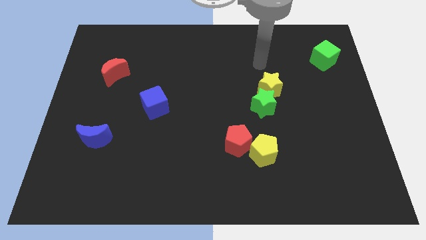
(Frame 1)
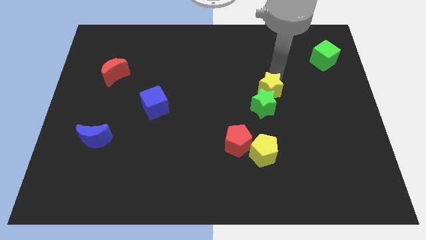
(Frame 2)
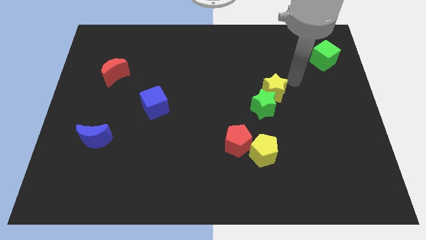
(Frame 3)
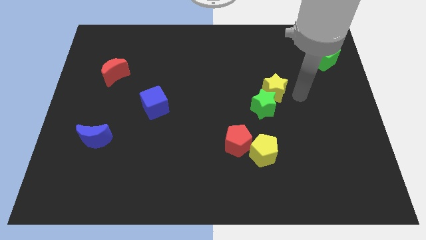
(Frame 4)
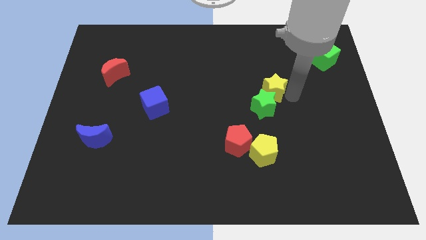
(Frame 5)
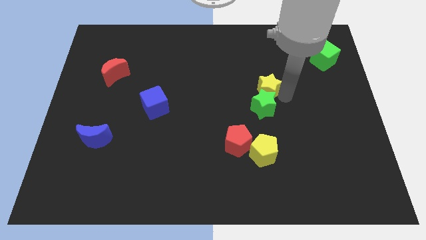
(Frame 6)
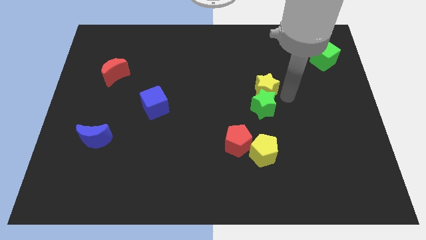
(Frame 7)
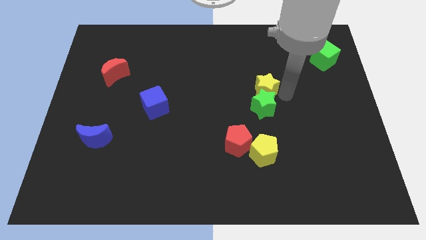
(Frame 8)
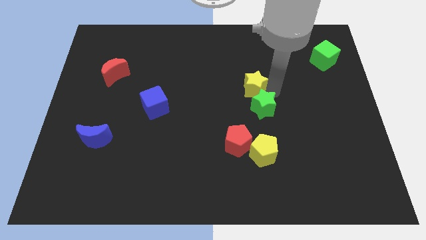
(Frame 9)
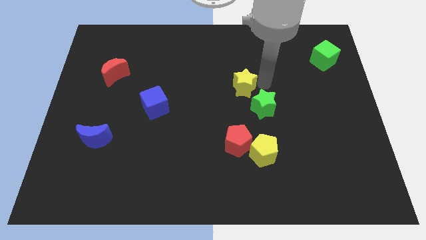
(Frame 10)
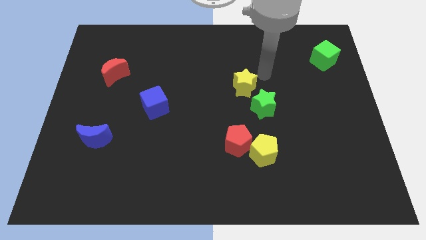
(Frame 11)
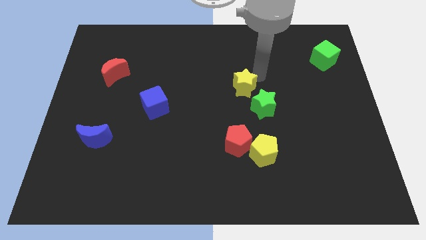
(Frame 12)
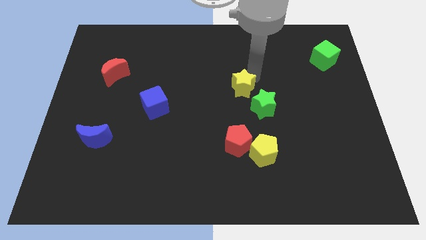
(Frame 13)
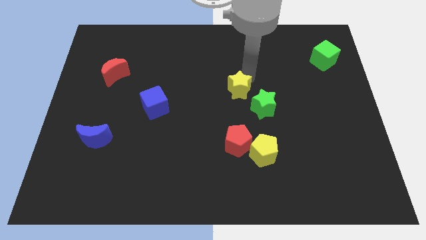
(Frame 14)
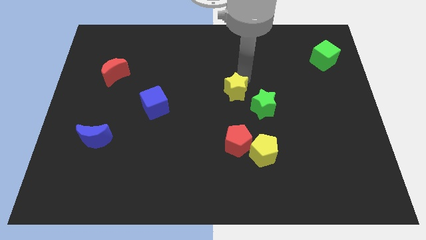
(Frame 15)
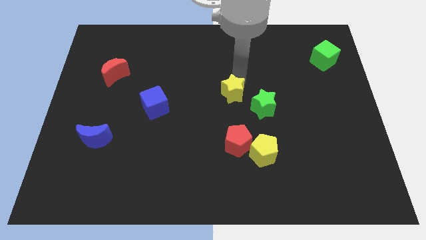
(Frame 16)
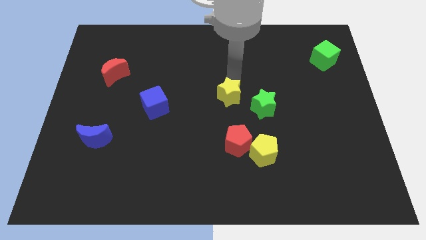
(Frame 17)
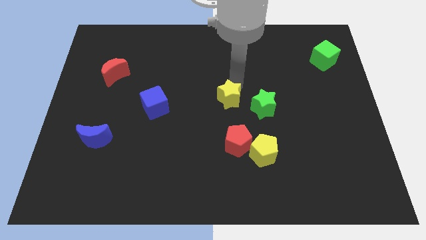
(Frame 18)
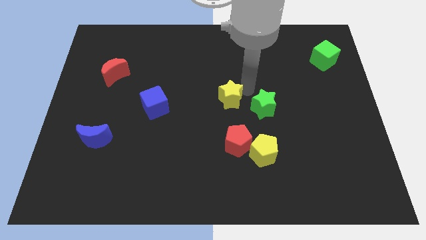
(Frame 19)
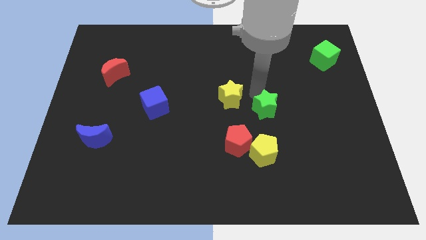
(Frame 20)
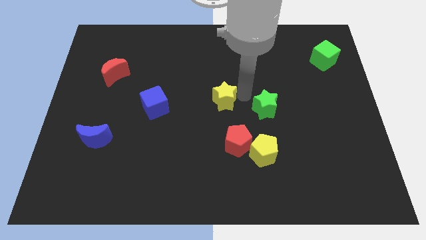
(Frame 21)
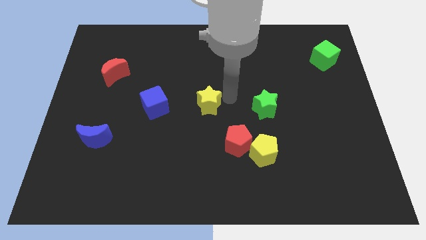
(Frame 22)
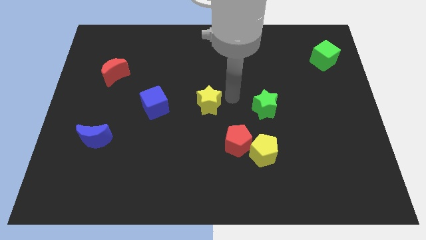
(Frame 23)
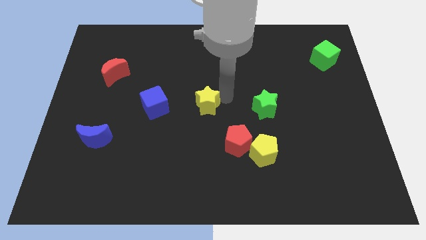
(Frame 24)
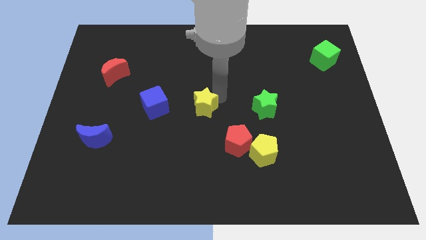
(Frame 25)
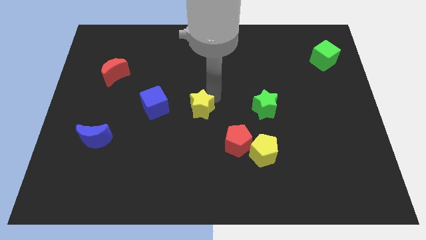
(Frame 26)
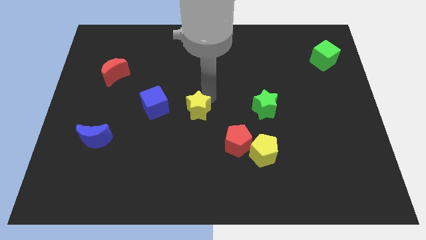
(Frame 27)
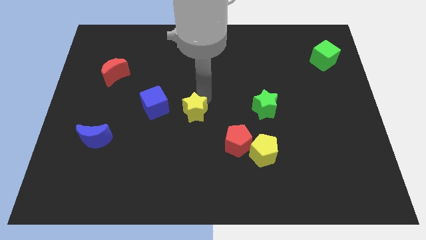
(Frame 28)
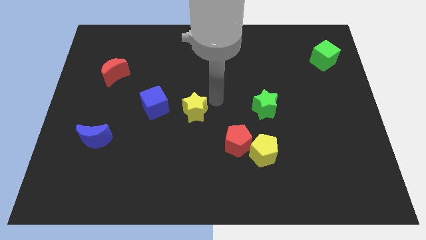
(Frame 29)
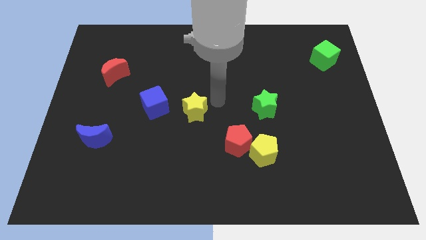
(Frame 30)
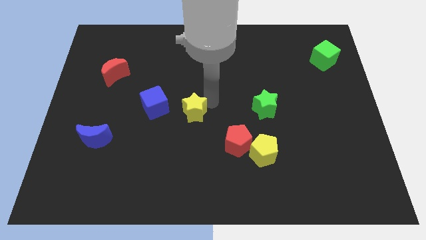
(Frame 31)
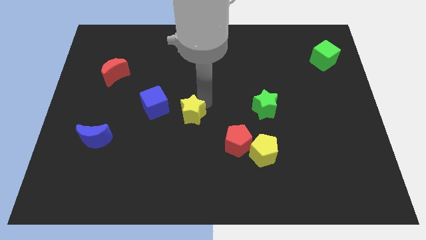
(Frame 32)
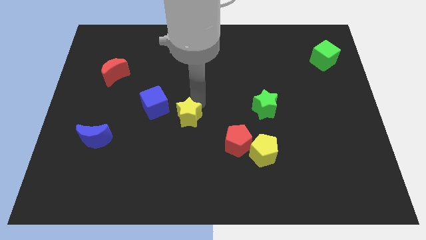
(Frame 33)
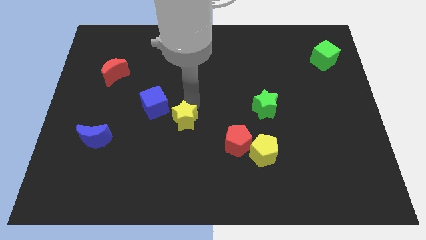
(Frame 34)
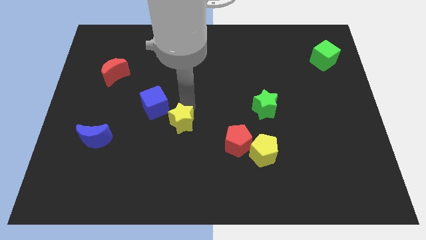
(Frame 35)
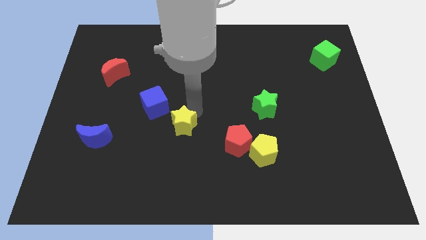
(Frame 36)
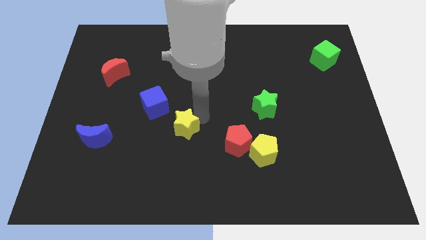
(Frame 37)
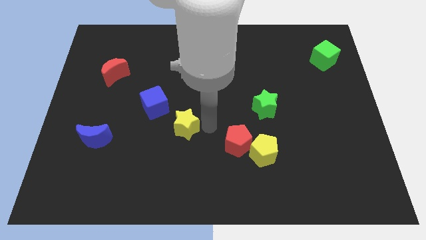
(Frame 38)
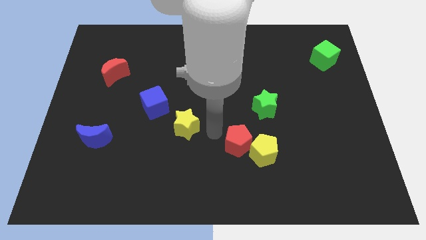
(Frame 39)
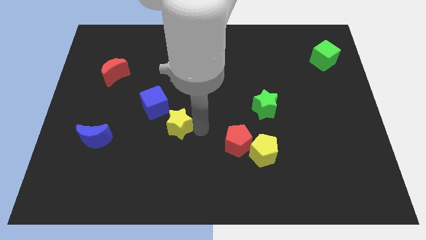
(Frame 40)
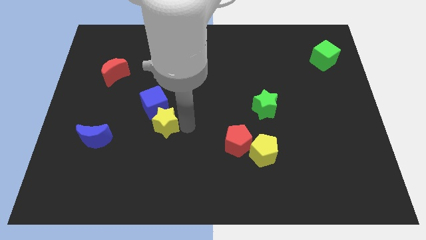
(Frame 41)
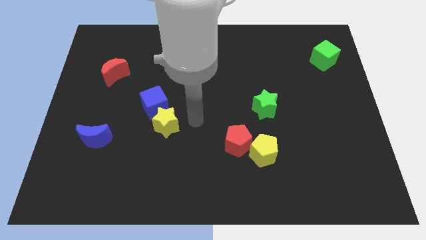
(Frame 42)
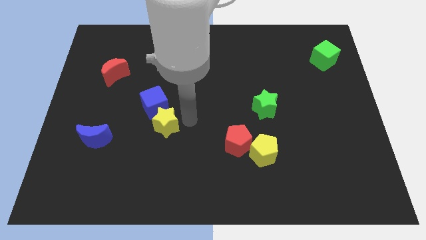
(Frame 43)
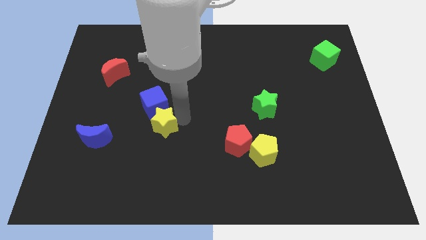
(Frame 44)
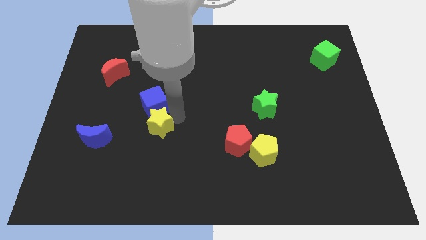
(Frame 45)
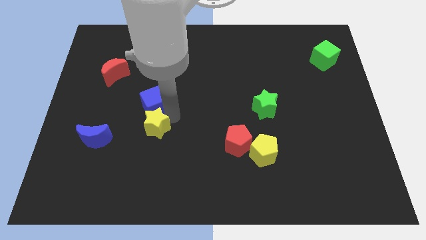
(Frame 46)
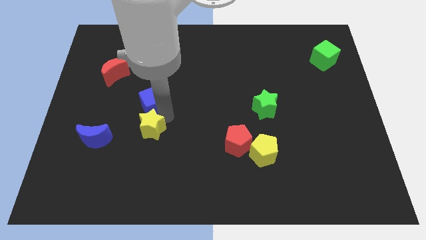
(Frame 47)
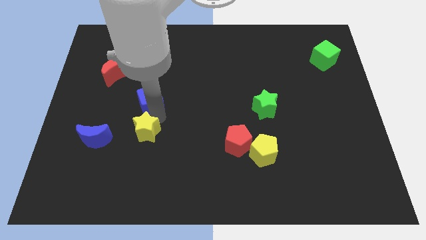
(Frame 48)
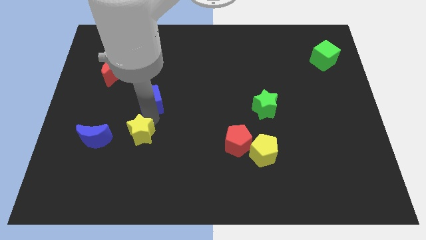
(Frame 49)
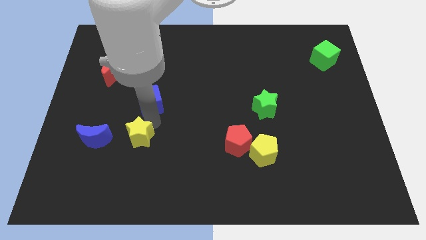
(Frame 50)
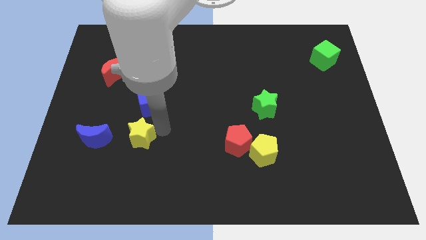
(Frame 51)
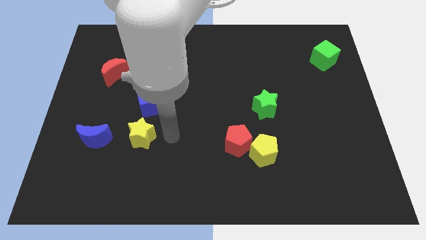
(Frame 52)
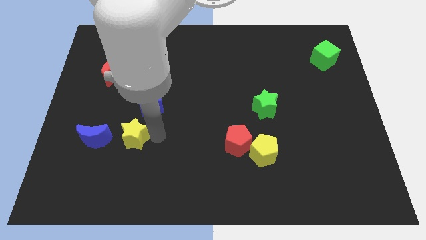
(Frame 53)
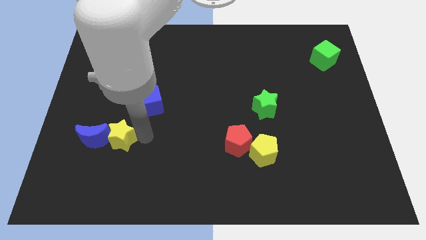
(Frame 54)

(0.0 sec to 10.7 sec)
push the yellow star next to the blue moon
